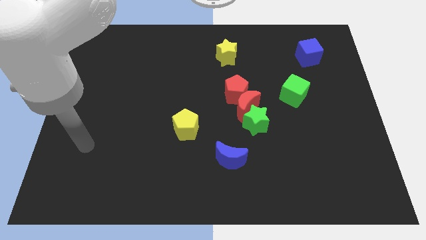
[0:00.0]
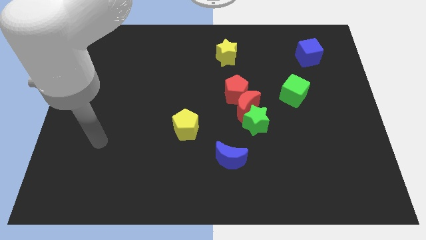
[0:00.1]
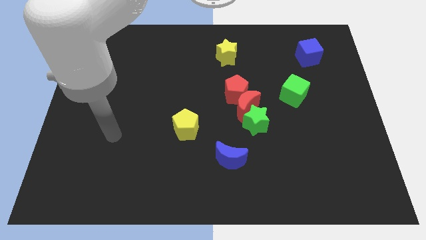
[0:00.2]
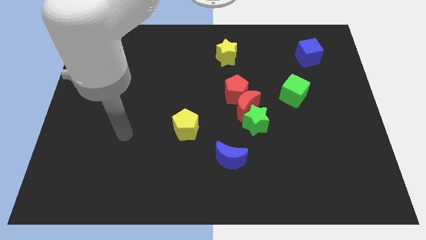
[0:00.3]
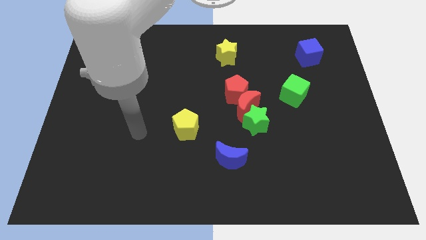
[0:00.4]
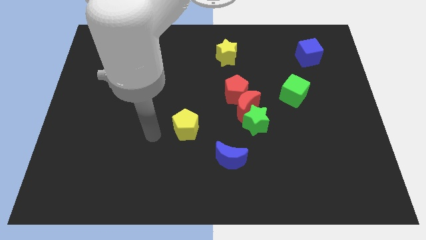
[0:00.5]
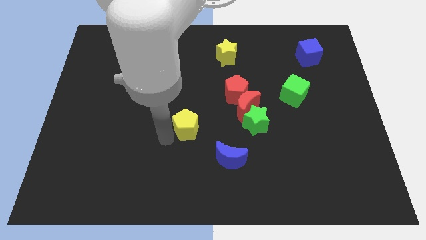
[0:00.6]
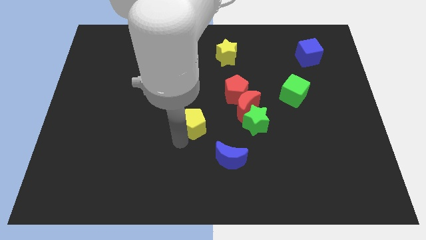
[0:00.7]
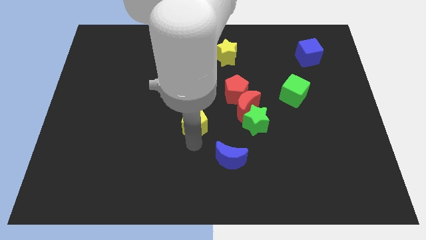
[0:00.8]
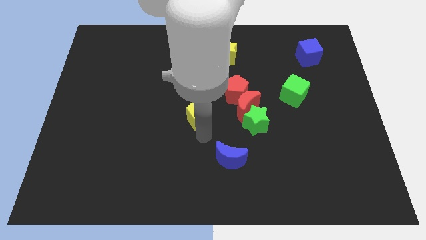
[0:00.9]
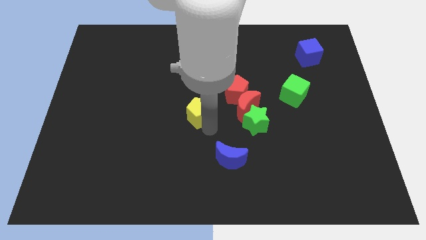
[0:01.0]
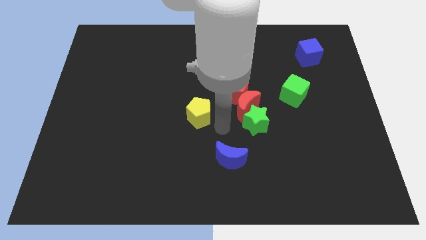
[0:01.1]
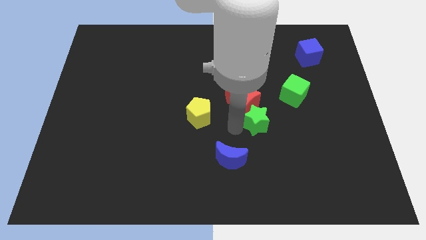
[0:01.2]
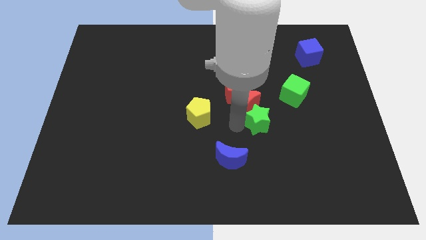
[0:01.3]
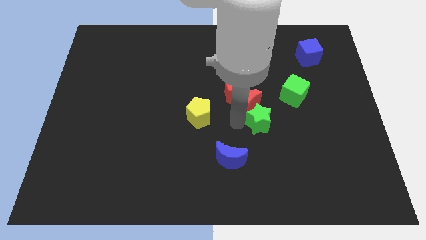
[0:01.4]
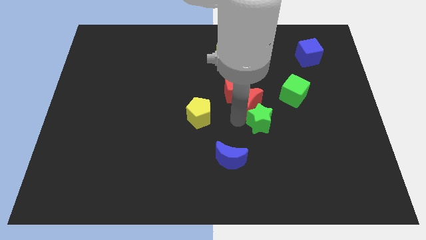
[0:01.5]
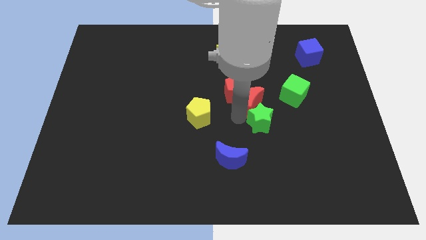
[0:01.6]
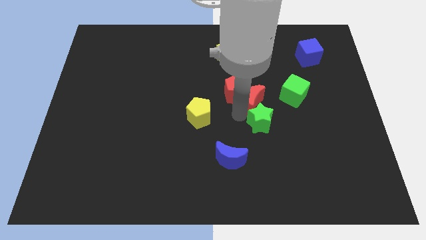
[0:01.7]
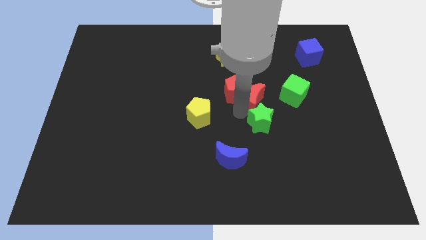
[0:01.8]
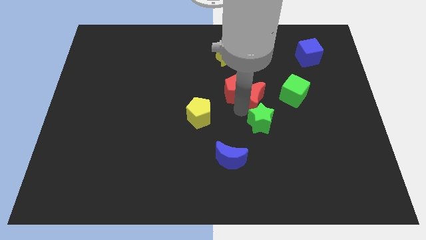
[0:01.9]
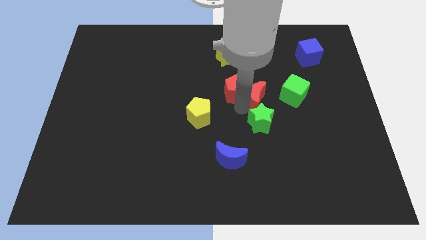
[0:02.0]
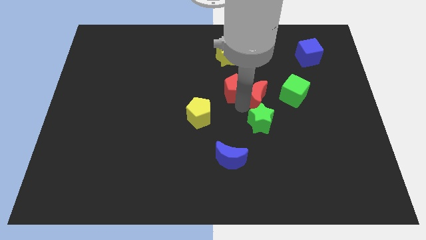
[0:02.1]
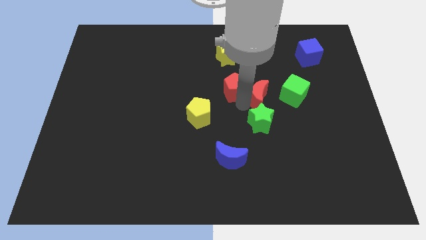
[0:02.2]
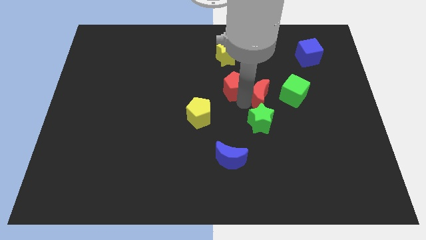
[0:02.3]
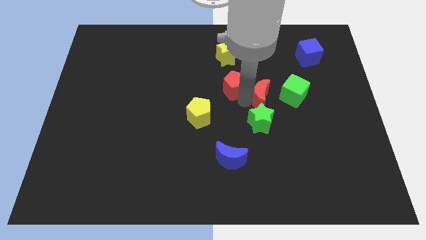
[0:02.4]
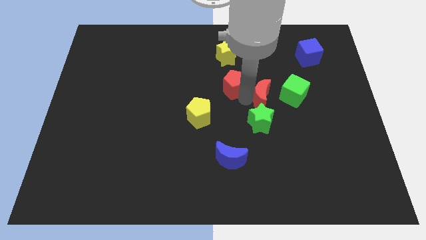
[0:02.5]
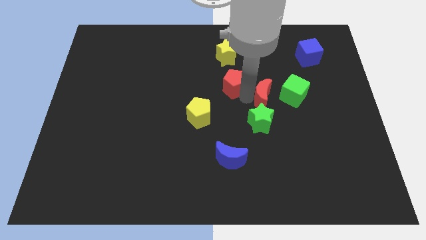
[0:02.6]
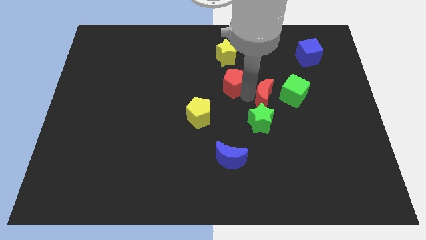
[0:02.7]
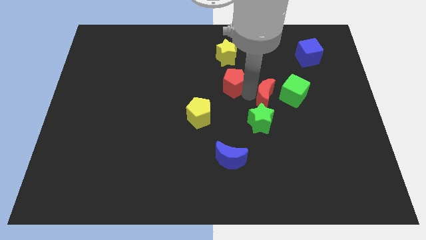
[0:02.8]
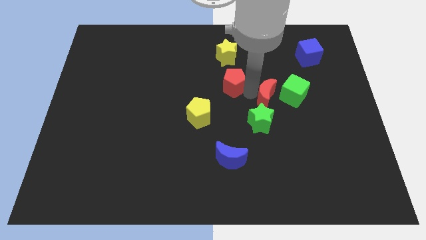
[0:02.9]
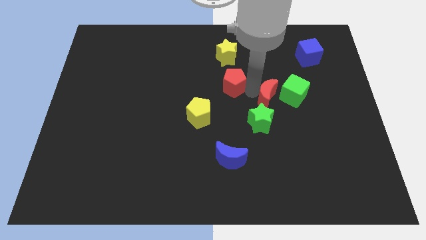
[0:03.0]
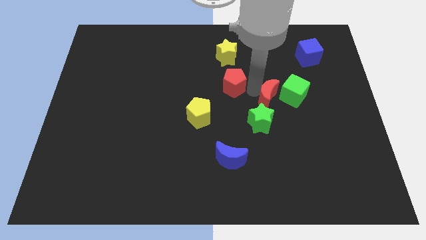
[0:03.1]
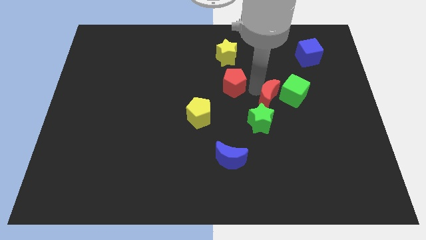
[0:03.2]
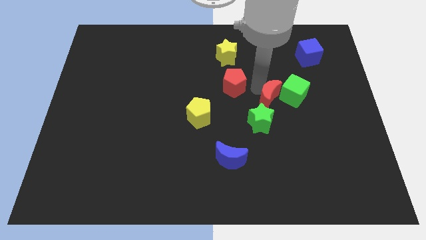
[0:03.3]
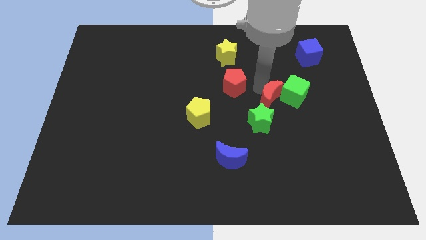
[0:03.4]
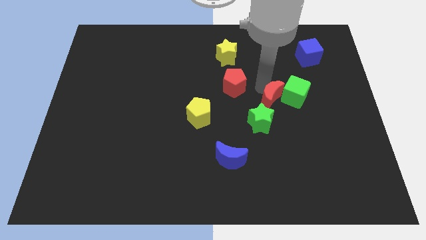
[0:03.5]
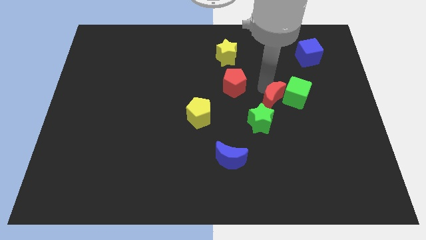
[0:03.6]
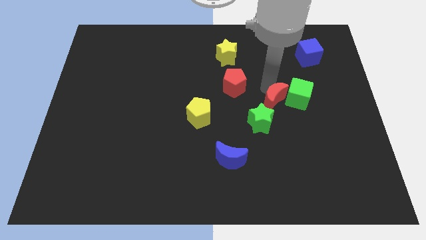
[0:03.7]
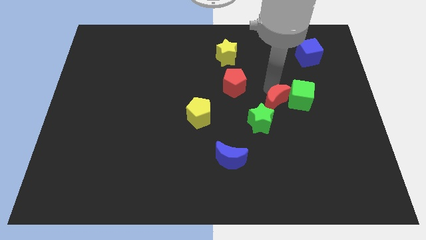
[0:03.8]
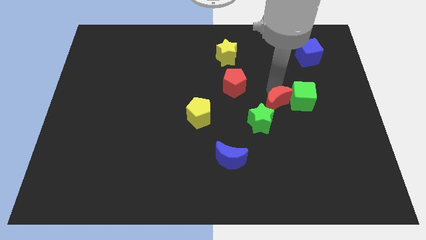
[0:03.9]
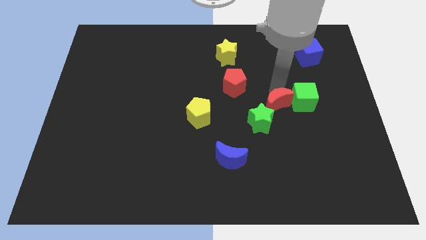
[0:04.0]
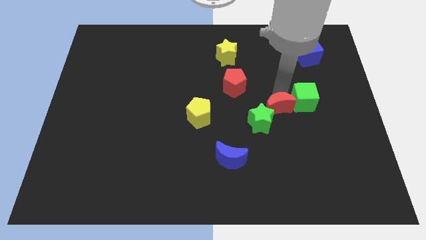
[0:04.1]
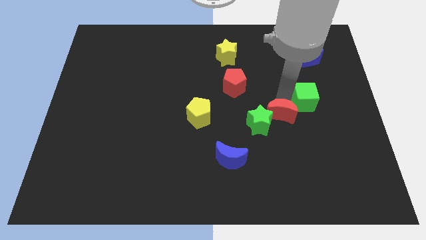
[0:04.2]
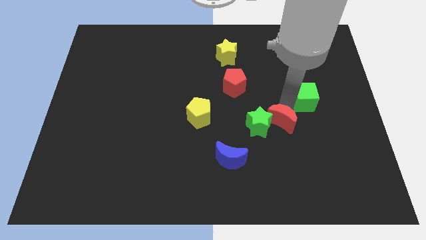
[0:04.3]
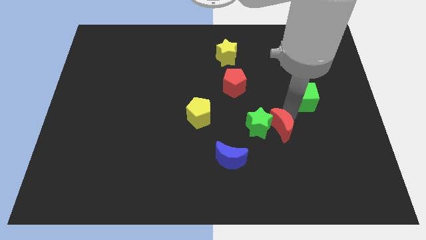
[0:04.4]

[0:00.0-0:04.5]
separate the red moon from the red pentagon and green star

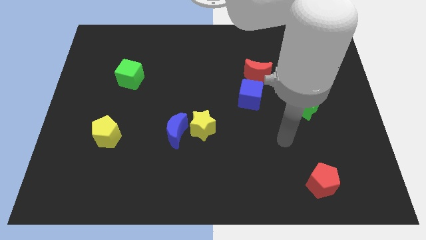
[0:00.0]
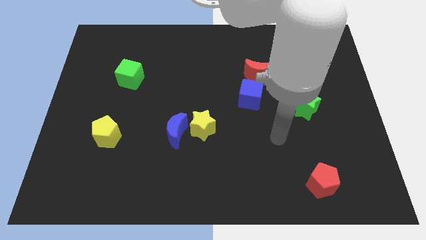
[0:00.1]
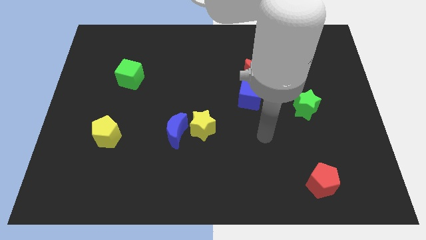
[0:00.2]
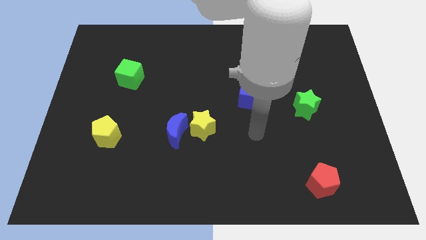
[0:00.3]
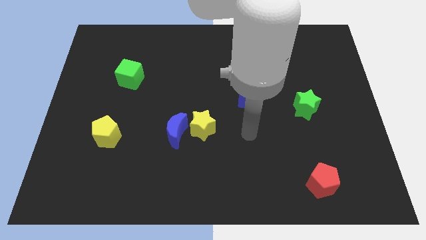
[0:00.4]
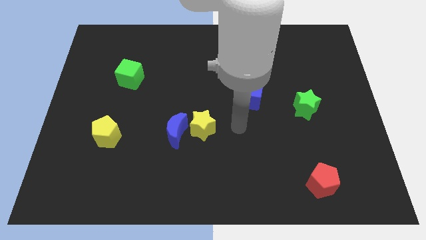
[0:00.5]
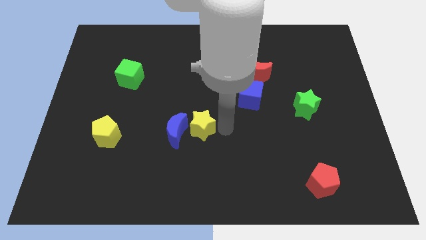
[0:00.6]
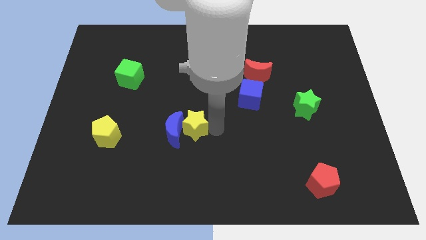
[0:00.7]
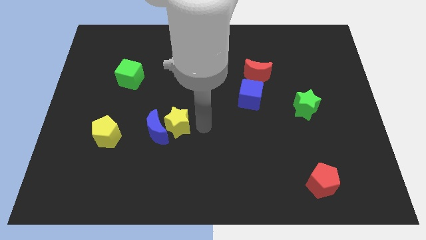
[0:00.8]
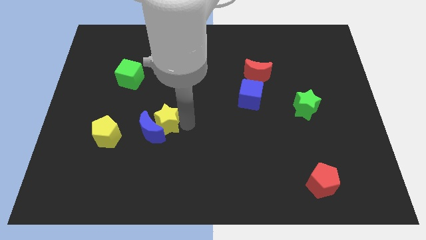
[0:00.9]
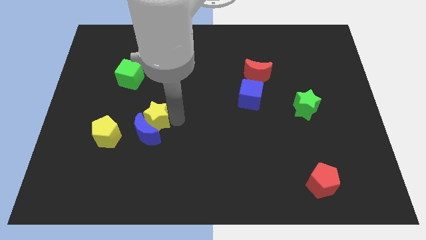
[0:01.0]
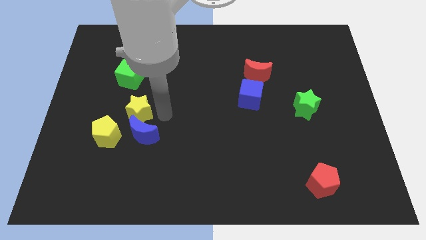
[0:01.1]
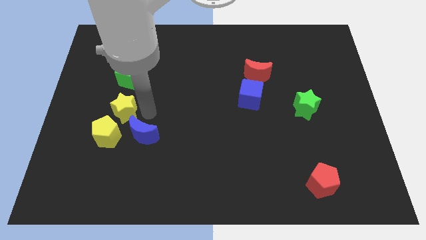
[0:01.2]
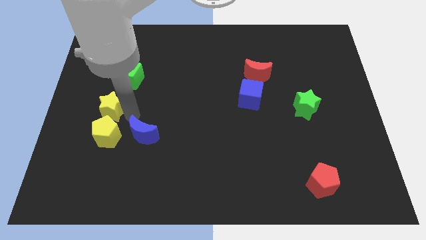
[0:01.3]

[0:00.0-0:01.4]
pull the blue moon apart from the yellow star

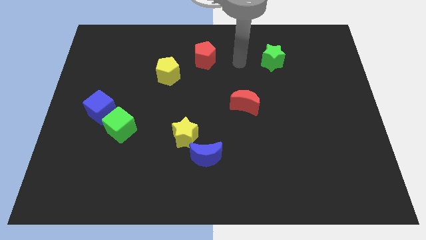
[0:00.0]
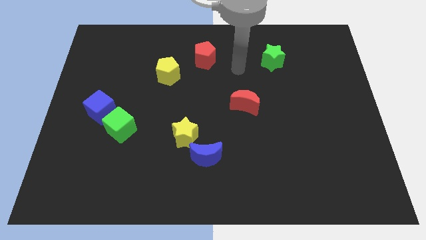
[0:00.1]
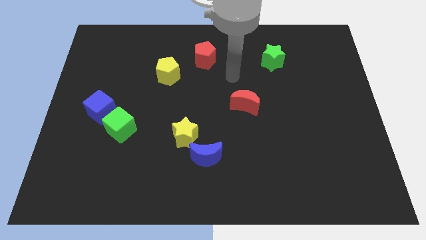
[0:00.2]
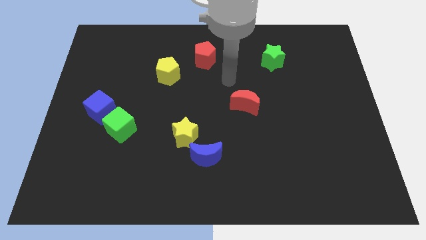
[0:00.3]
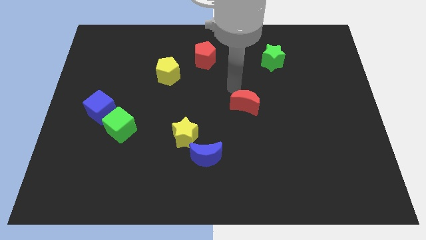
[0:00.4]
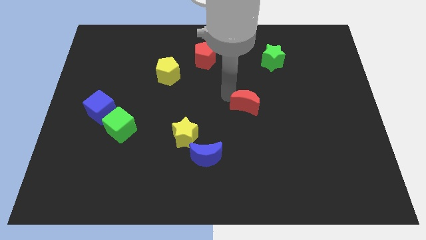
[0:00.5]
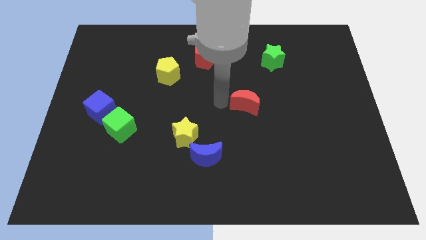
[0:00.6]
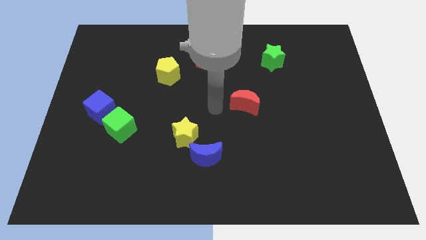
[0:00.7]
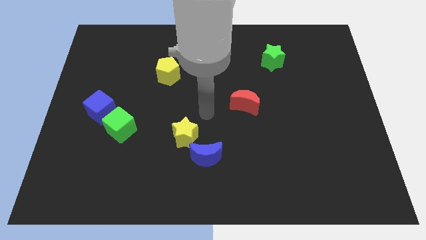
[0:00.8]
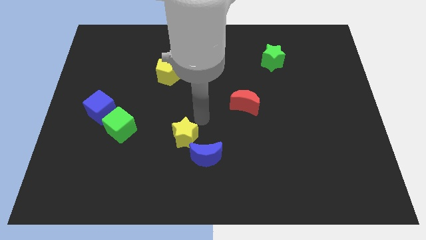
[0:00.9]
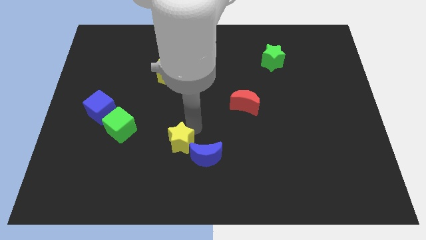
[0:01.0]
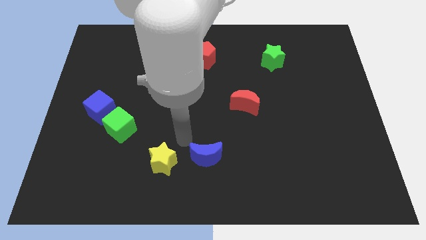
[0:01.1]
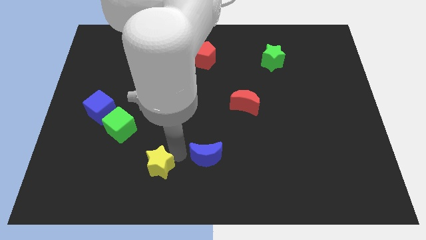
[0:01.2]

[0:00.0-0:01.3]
separate the blue moon from the yellow star

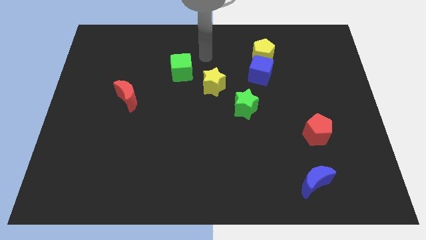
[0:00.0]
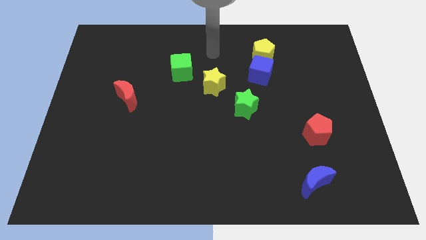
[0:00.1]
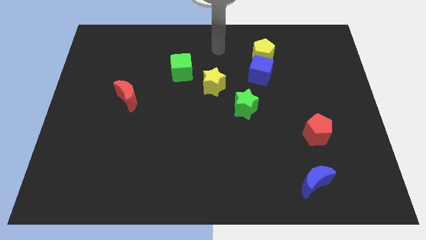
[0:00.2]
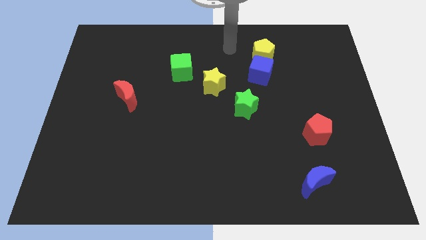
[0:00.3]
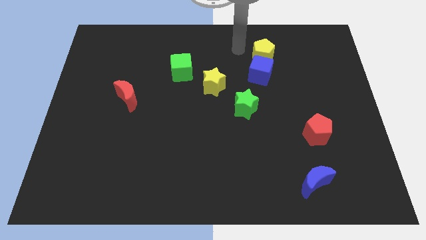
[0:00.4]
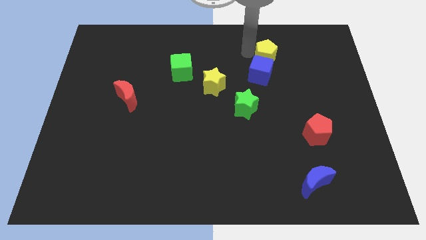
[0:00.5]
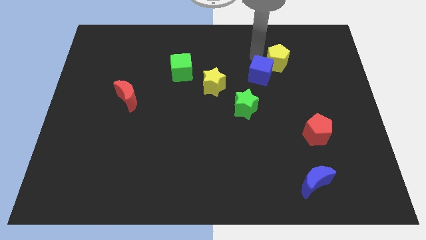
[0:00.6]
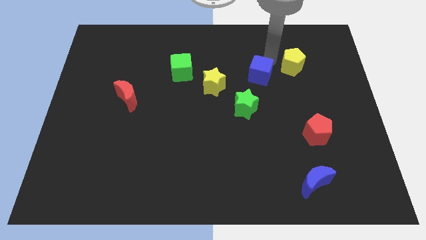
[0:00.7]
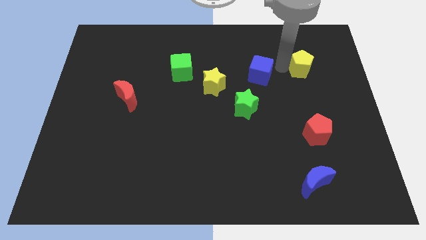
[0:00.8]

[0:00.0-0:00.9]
separate the blue cube from the yellow pentagon

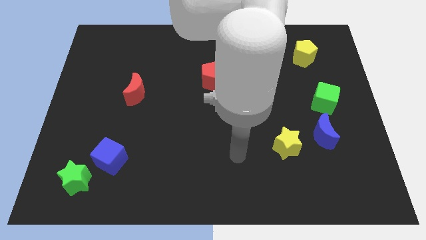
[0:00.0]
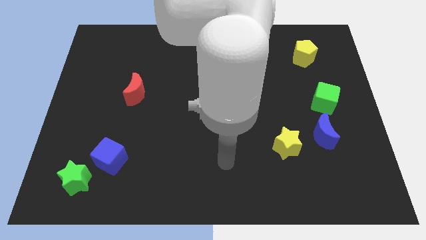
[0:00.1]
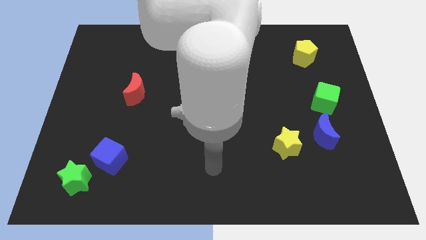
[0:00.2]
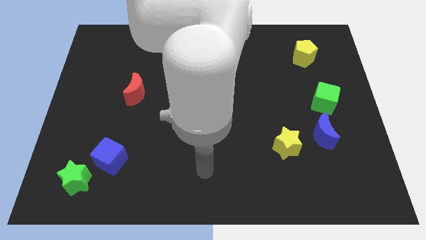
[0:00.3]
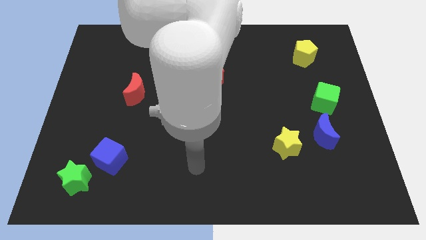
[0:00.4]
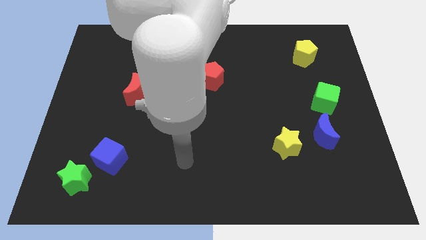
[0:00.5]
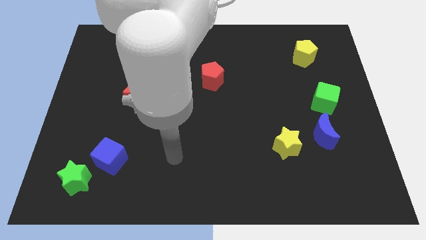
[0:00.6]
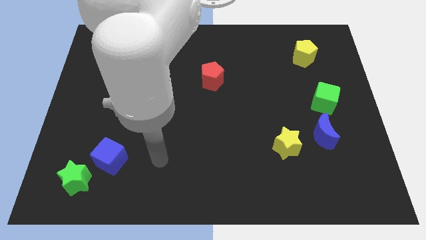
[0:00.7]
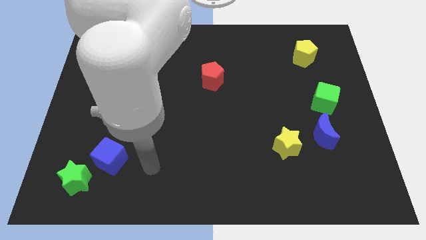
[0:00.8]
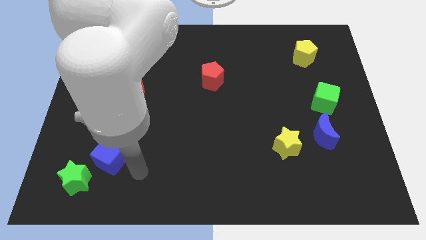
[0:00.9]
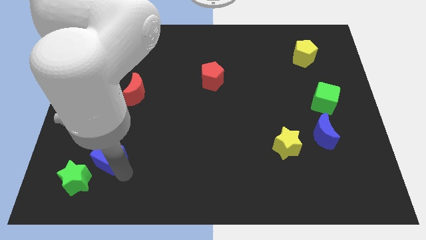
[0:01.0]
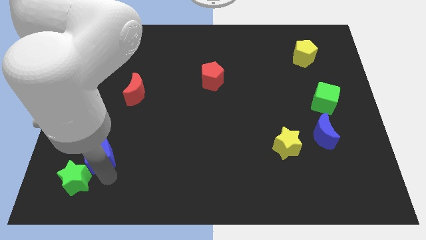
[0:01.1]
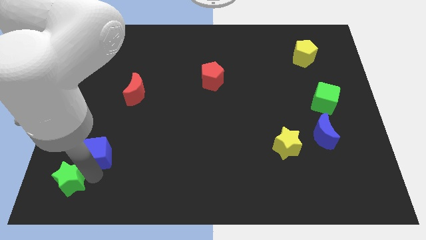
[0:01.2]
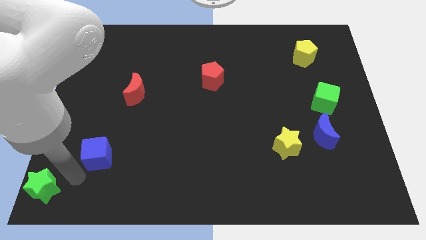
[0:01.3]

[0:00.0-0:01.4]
pull the blue cube apart from the green star
